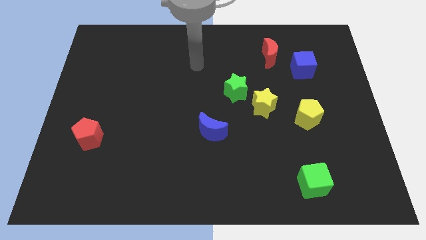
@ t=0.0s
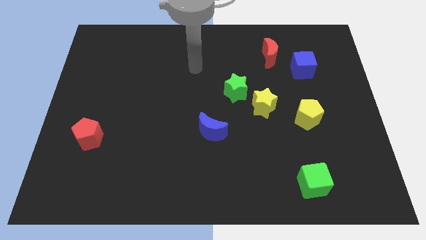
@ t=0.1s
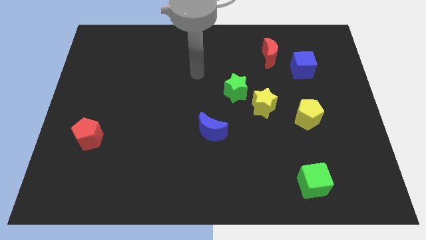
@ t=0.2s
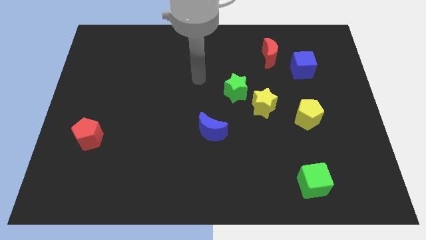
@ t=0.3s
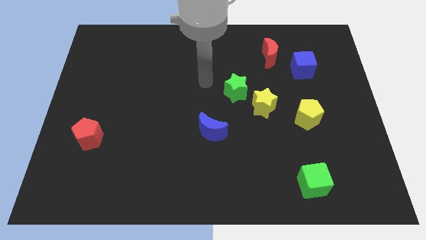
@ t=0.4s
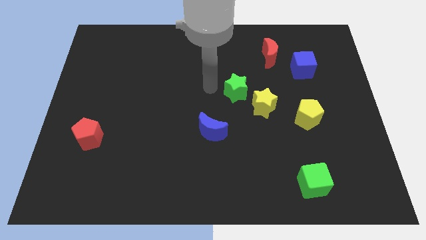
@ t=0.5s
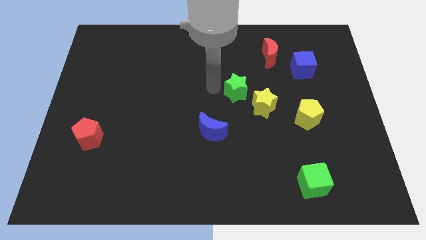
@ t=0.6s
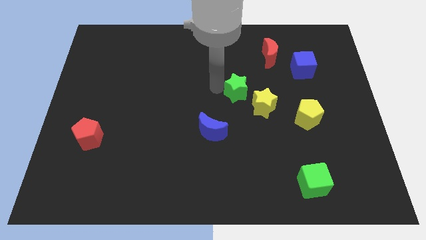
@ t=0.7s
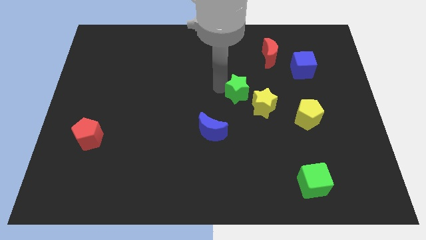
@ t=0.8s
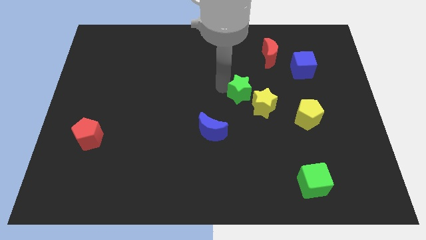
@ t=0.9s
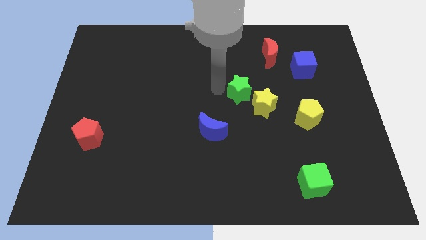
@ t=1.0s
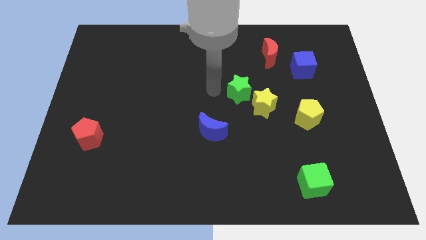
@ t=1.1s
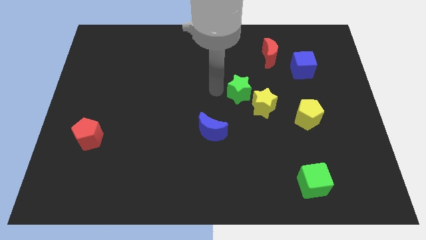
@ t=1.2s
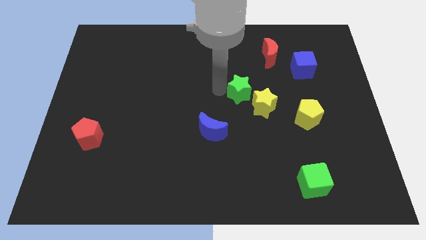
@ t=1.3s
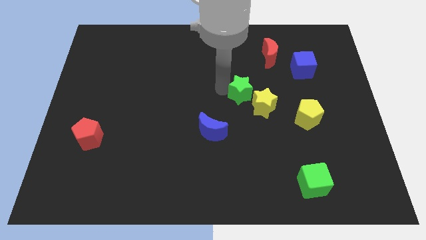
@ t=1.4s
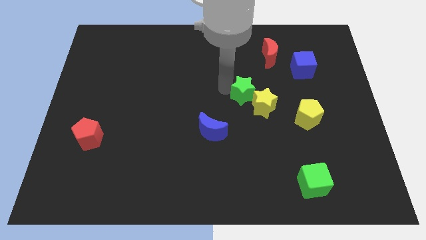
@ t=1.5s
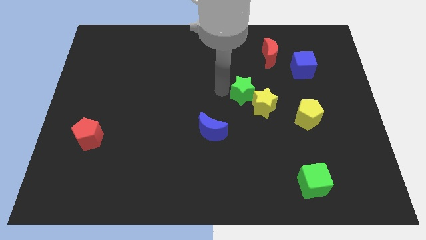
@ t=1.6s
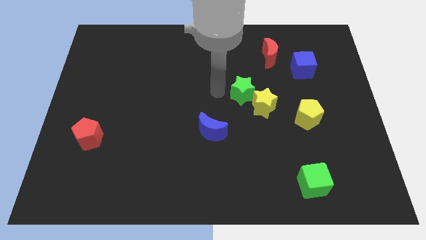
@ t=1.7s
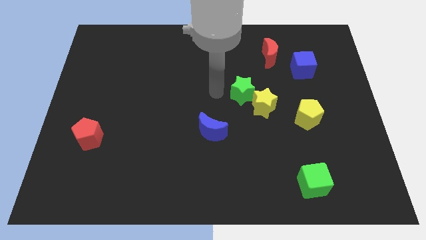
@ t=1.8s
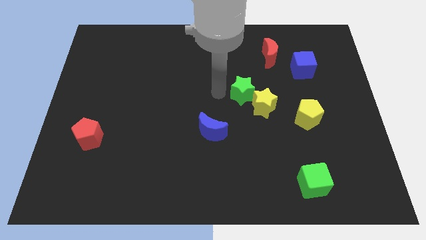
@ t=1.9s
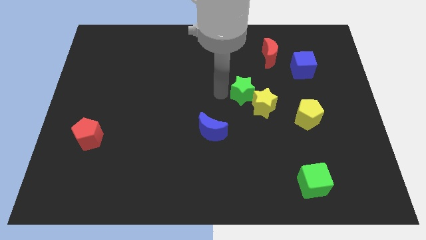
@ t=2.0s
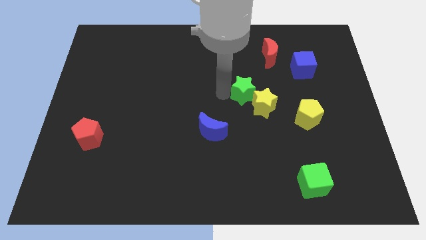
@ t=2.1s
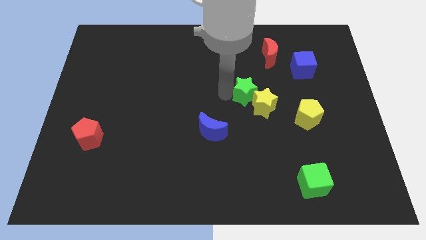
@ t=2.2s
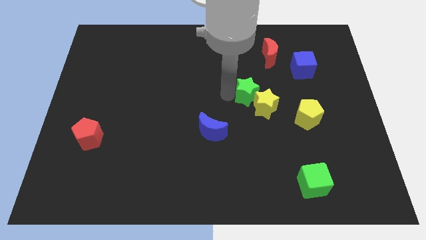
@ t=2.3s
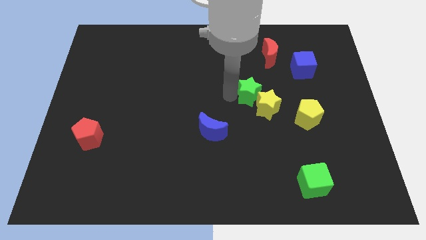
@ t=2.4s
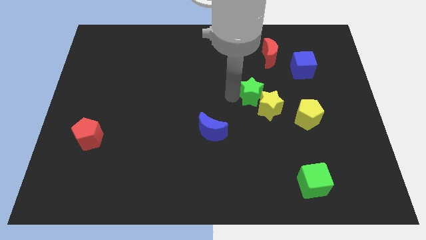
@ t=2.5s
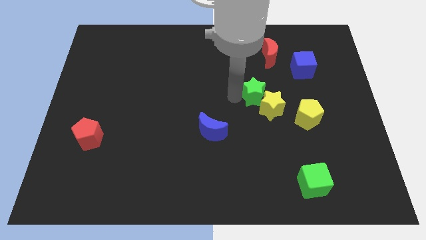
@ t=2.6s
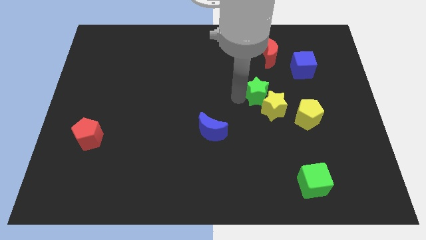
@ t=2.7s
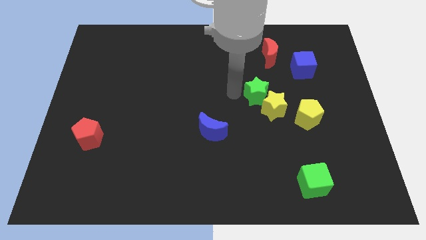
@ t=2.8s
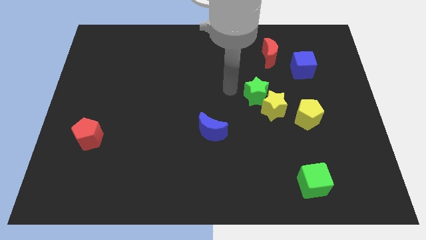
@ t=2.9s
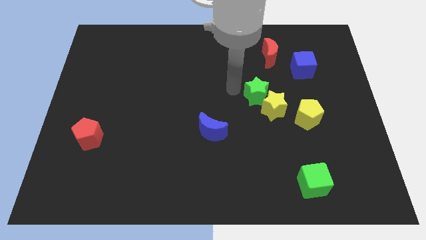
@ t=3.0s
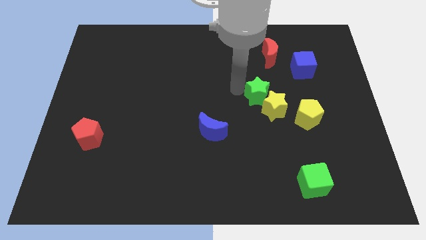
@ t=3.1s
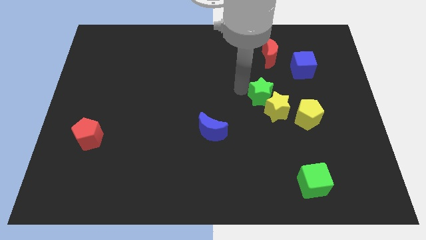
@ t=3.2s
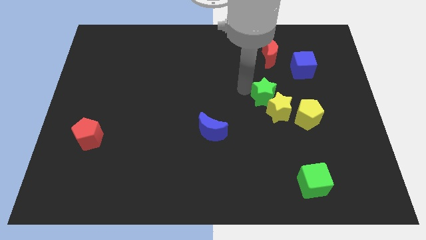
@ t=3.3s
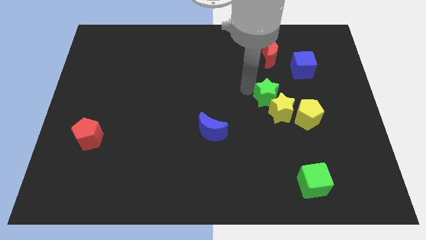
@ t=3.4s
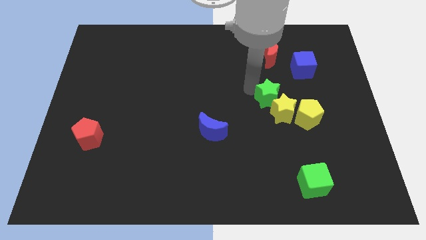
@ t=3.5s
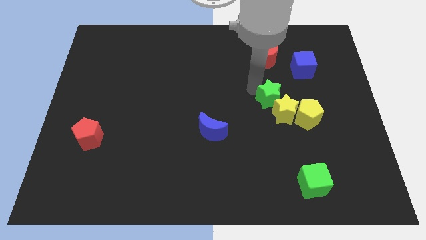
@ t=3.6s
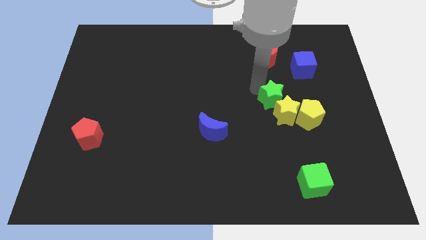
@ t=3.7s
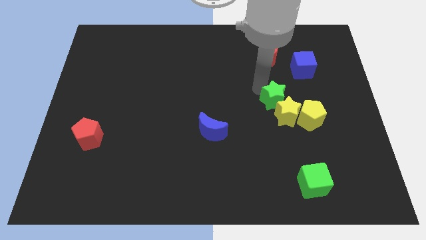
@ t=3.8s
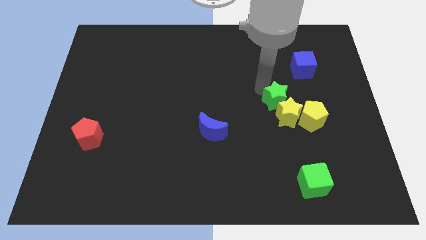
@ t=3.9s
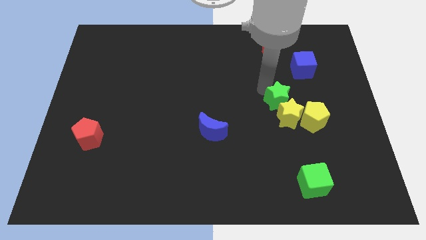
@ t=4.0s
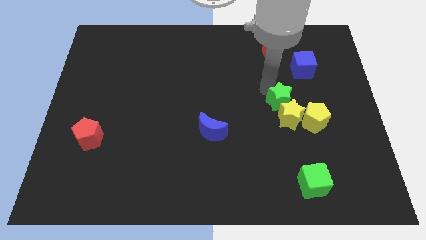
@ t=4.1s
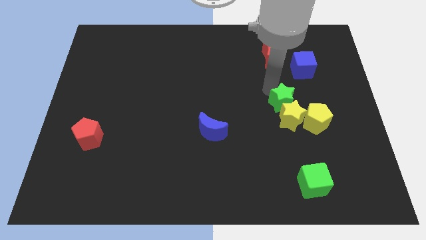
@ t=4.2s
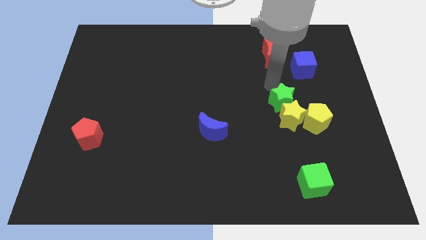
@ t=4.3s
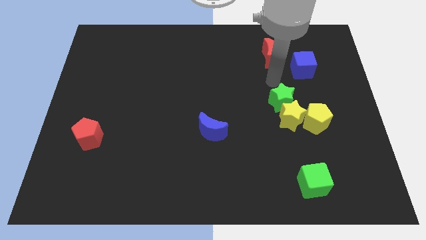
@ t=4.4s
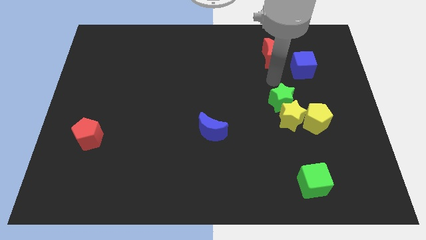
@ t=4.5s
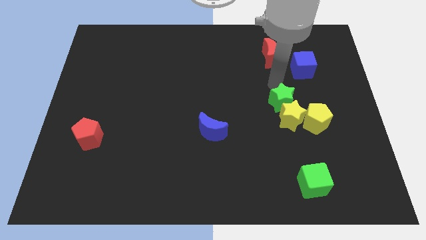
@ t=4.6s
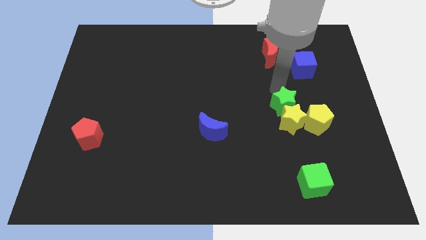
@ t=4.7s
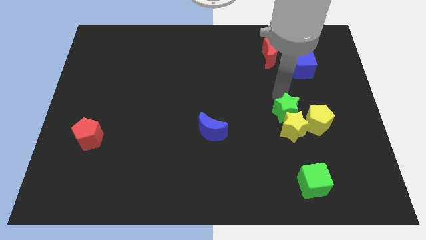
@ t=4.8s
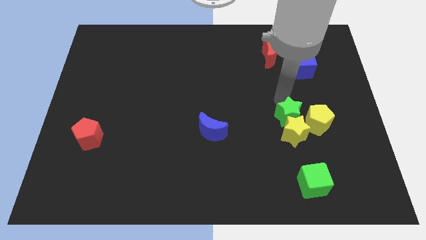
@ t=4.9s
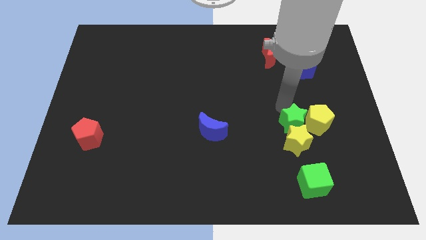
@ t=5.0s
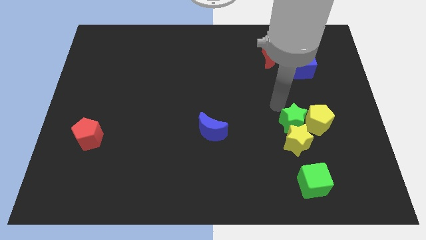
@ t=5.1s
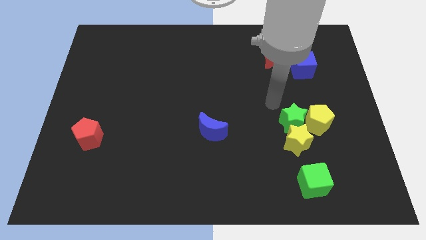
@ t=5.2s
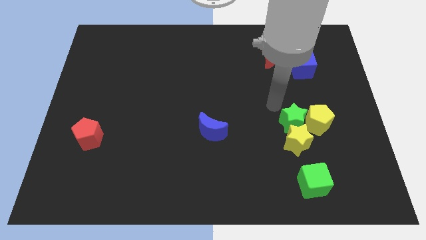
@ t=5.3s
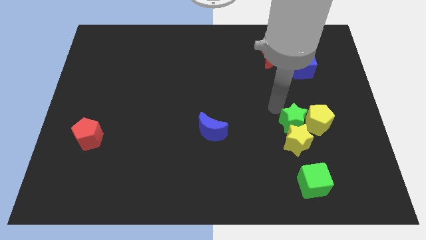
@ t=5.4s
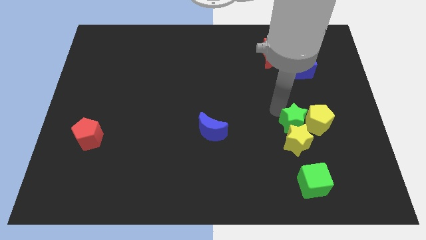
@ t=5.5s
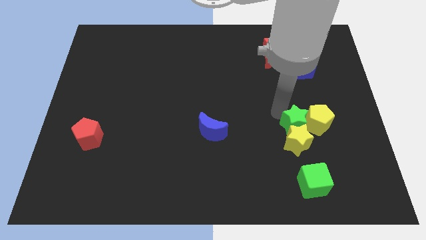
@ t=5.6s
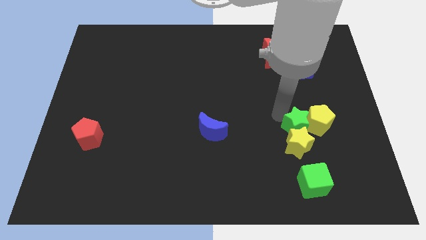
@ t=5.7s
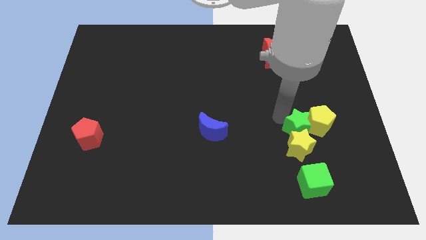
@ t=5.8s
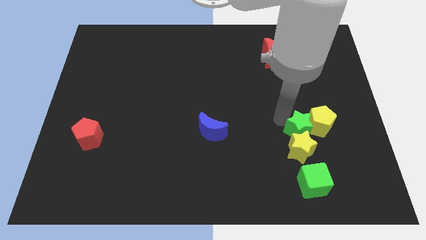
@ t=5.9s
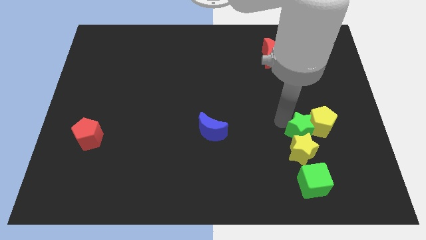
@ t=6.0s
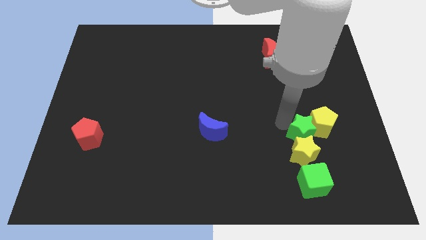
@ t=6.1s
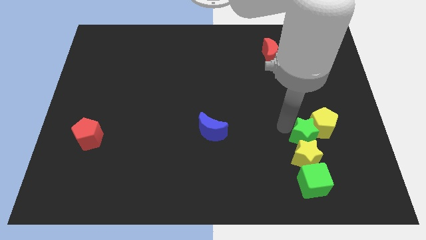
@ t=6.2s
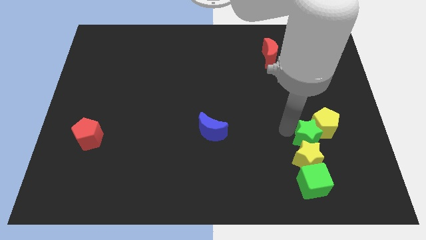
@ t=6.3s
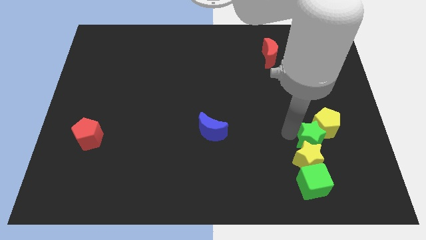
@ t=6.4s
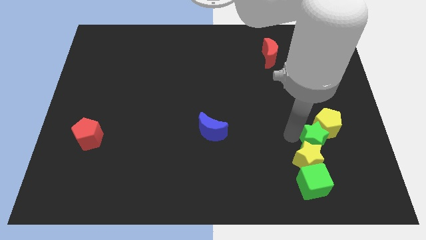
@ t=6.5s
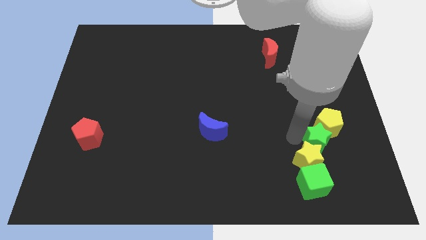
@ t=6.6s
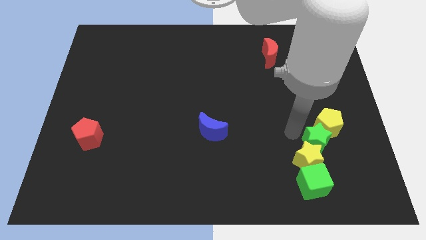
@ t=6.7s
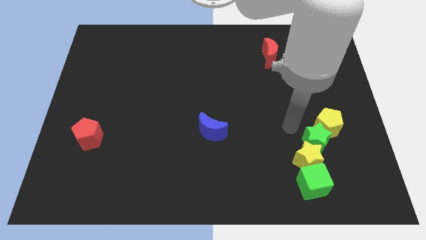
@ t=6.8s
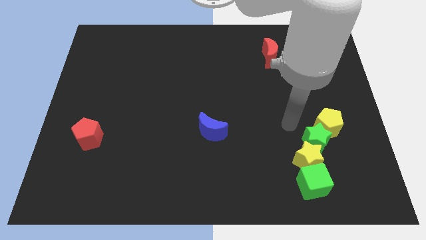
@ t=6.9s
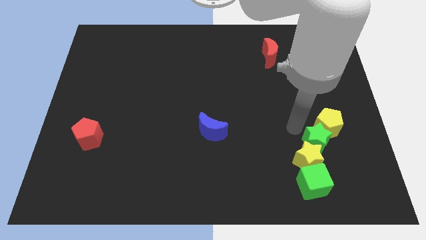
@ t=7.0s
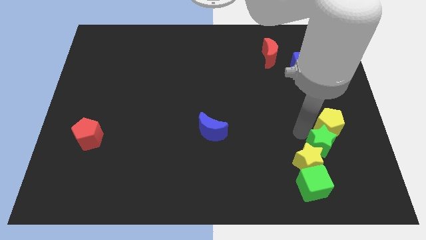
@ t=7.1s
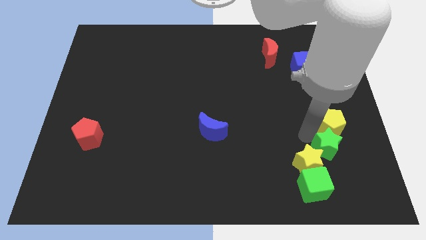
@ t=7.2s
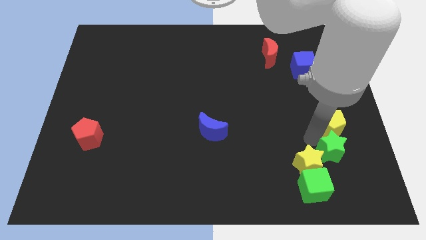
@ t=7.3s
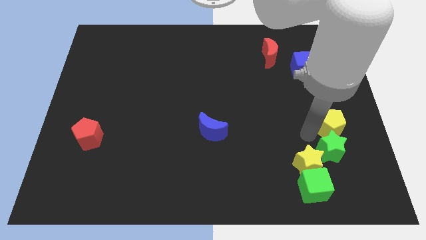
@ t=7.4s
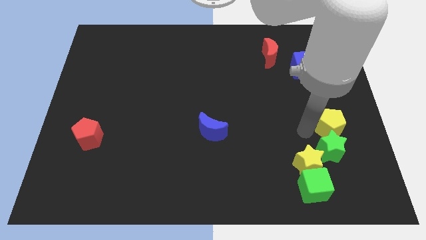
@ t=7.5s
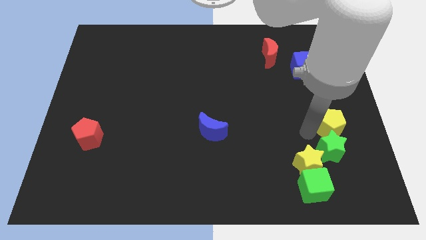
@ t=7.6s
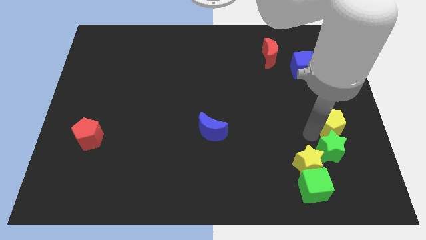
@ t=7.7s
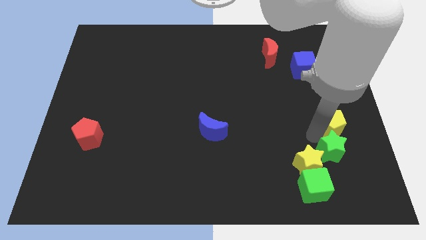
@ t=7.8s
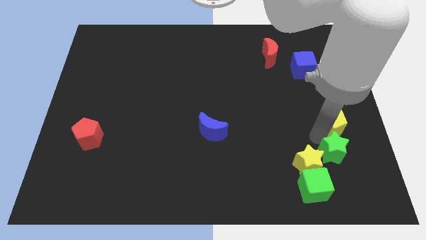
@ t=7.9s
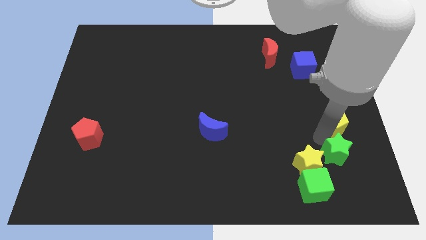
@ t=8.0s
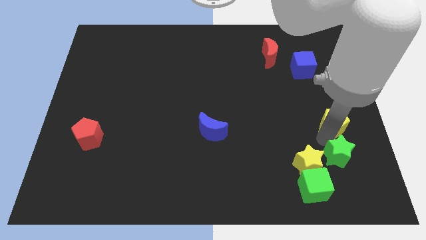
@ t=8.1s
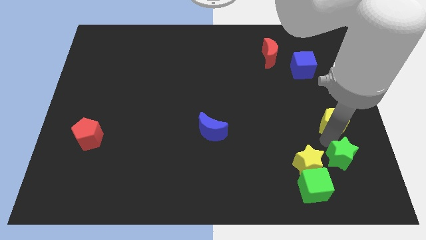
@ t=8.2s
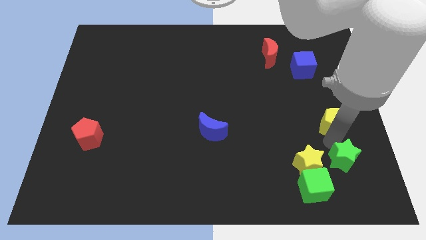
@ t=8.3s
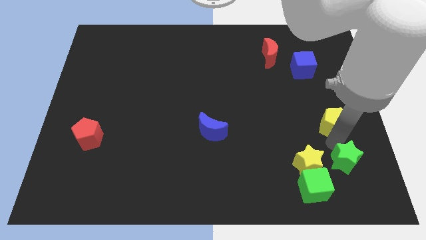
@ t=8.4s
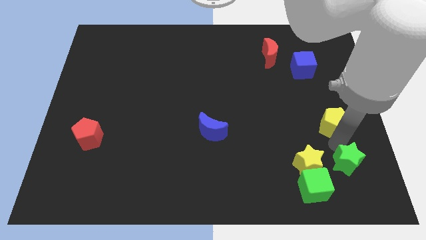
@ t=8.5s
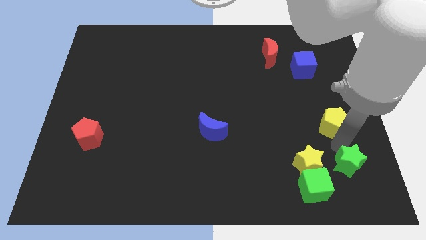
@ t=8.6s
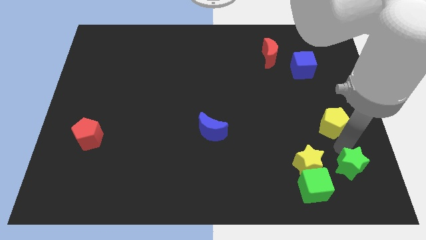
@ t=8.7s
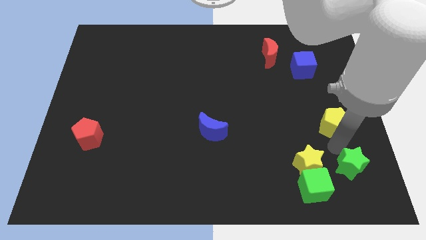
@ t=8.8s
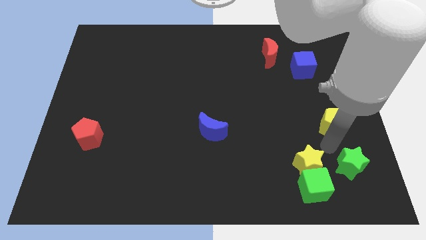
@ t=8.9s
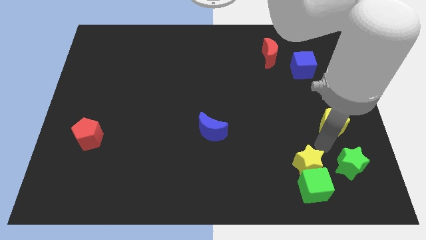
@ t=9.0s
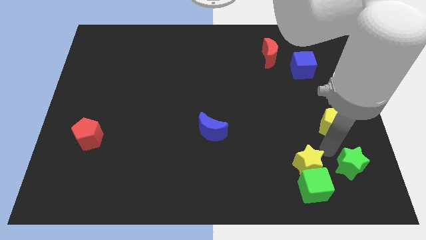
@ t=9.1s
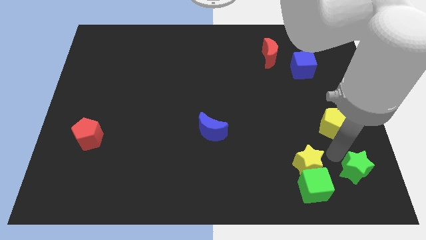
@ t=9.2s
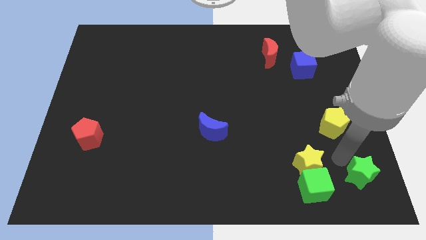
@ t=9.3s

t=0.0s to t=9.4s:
slide the green star to the bottom right corner
